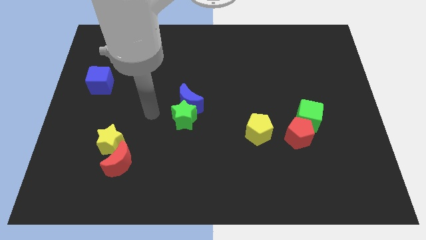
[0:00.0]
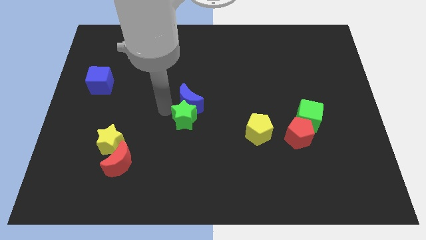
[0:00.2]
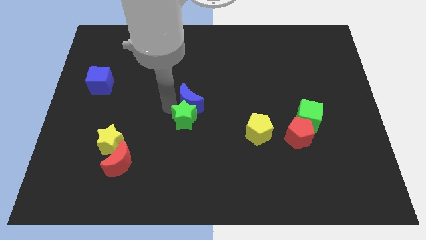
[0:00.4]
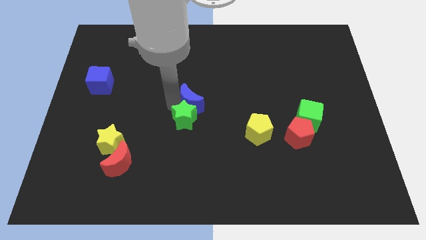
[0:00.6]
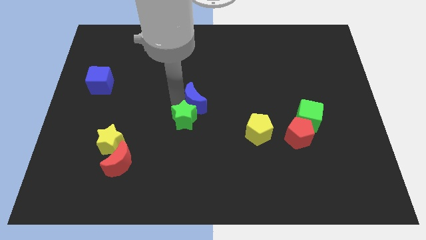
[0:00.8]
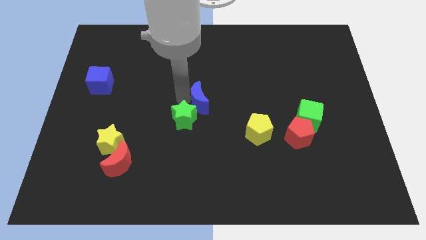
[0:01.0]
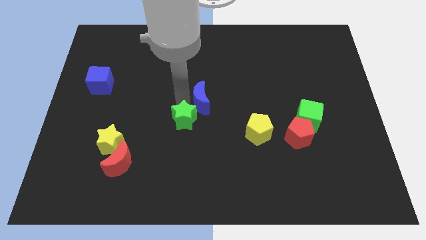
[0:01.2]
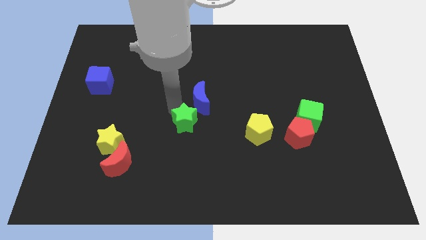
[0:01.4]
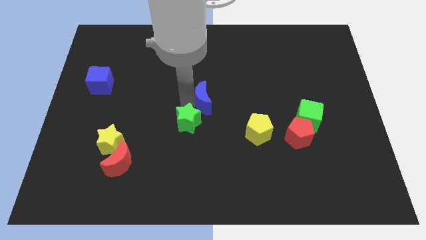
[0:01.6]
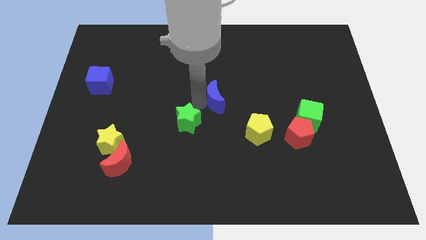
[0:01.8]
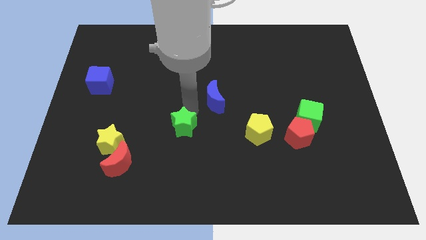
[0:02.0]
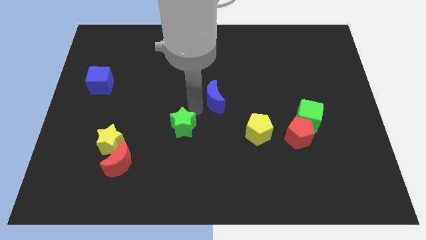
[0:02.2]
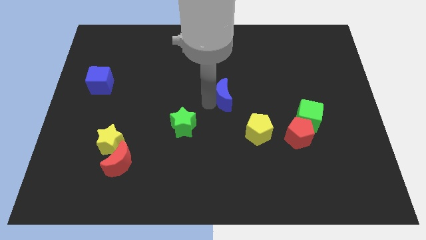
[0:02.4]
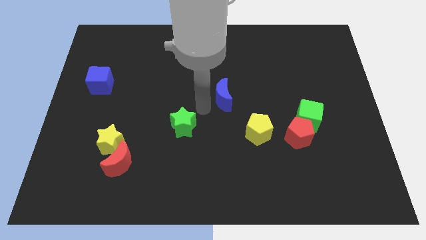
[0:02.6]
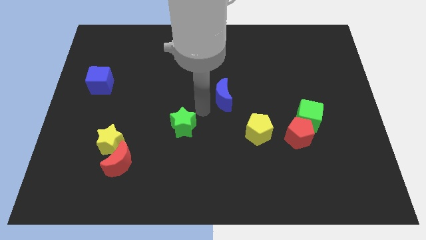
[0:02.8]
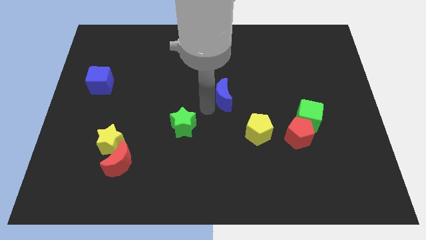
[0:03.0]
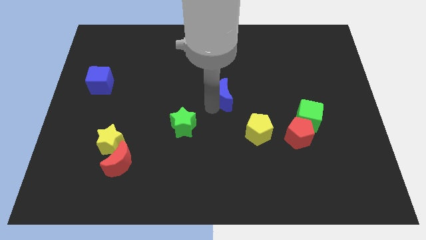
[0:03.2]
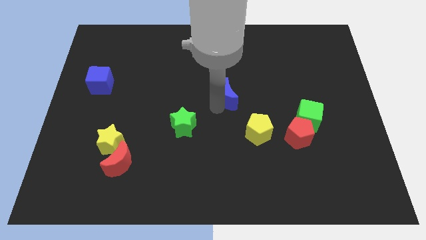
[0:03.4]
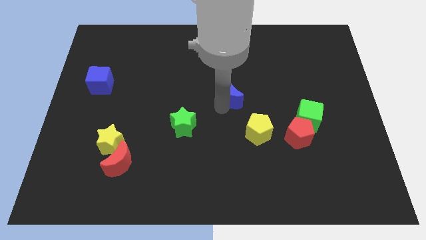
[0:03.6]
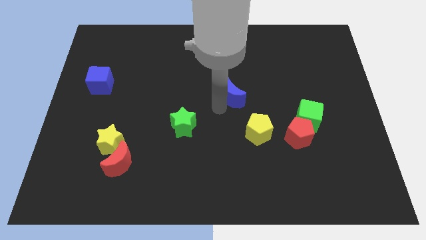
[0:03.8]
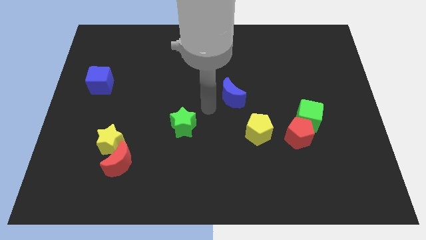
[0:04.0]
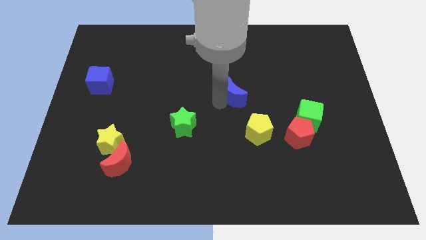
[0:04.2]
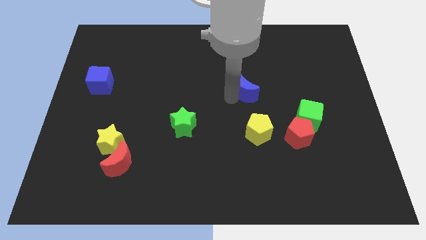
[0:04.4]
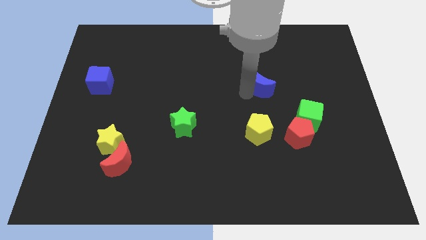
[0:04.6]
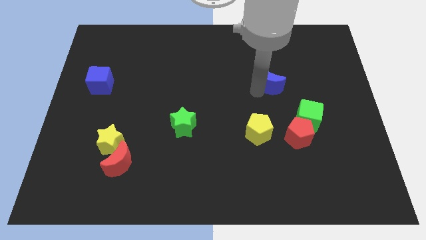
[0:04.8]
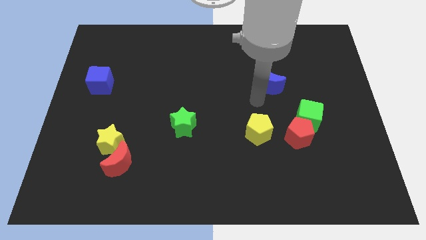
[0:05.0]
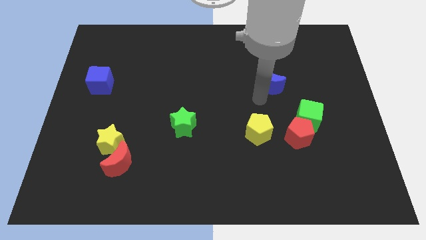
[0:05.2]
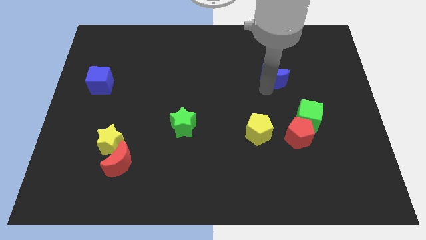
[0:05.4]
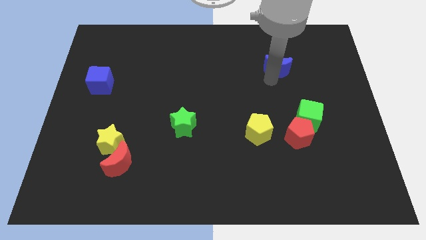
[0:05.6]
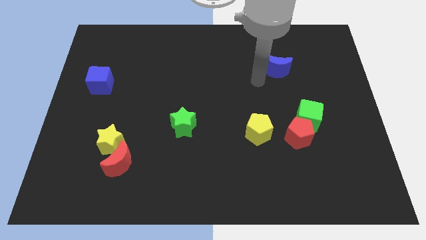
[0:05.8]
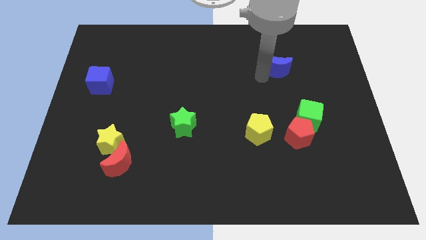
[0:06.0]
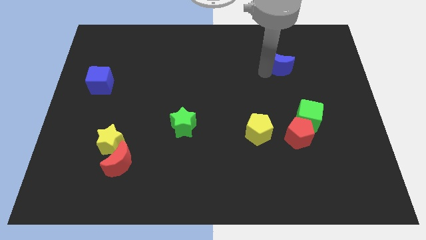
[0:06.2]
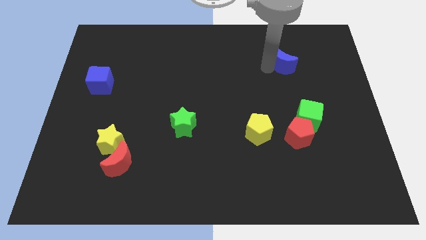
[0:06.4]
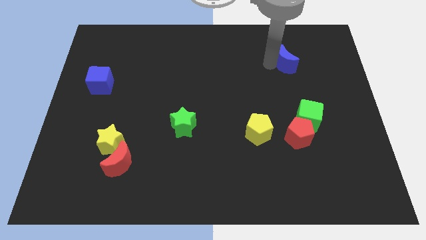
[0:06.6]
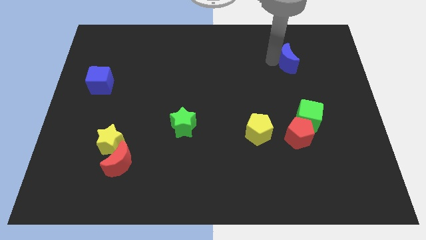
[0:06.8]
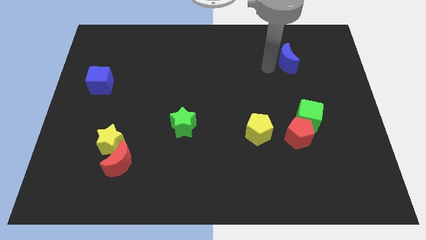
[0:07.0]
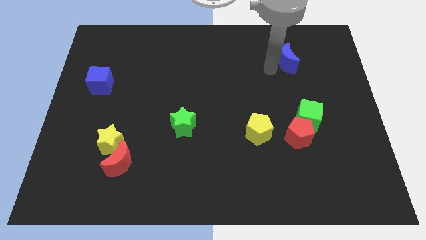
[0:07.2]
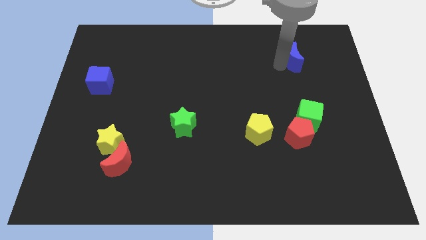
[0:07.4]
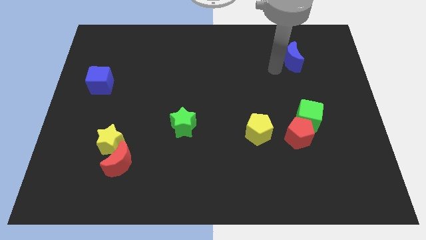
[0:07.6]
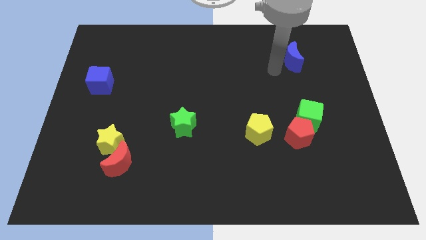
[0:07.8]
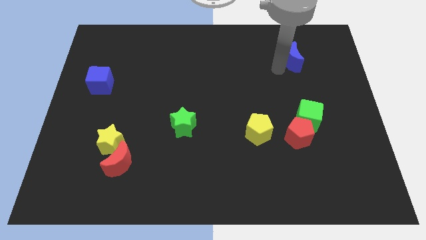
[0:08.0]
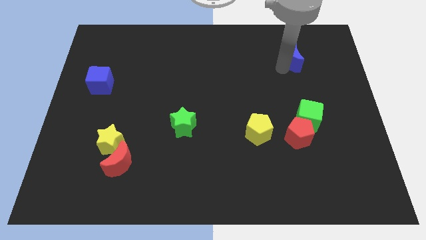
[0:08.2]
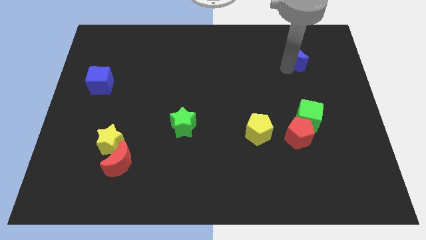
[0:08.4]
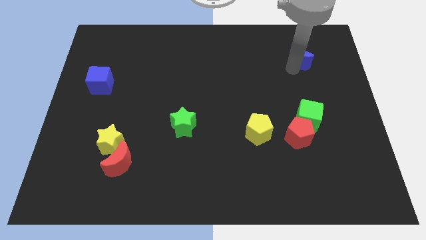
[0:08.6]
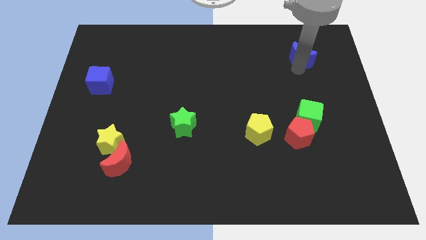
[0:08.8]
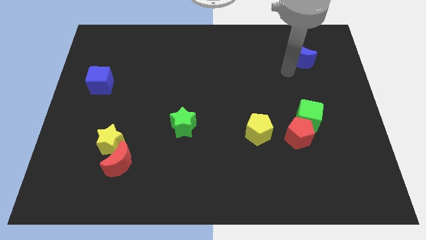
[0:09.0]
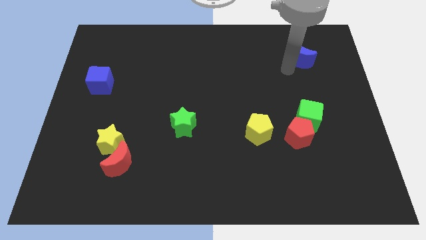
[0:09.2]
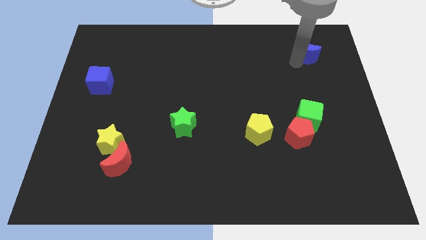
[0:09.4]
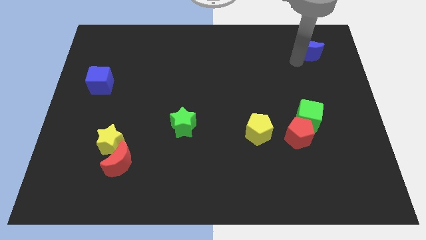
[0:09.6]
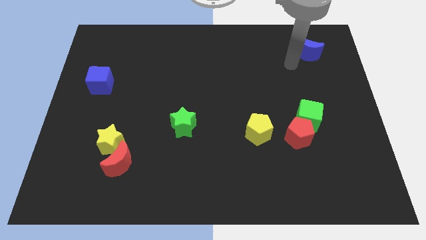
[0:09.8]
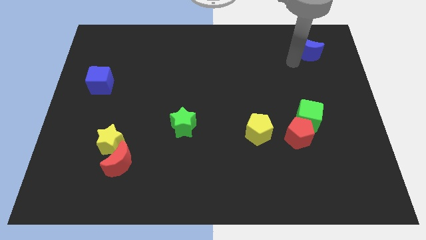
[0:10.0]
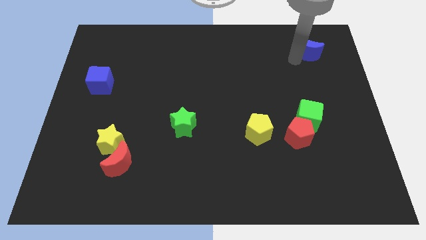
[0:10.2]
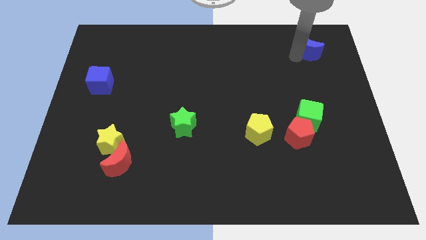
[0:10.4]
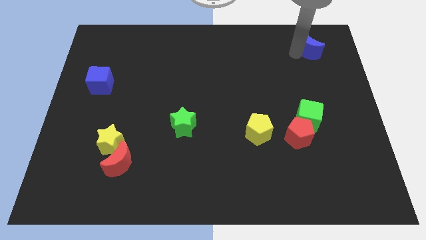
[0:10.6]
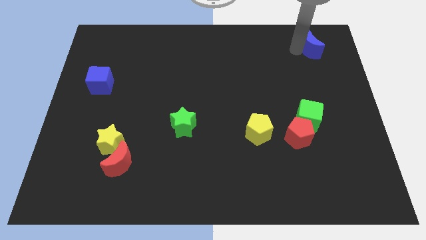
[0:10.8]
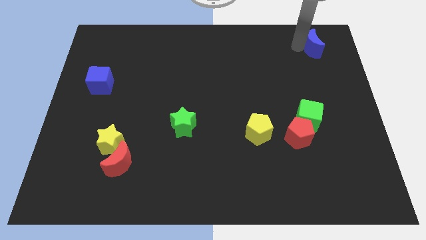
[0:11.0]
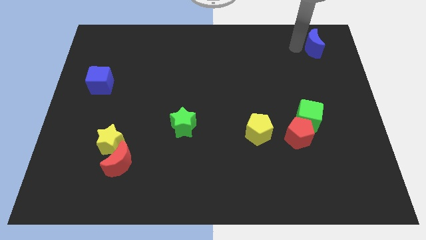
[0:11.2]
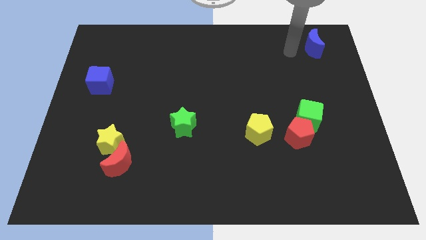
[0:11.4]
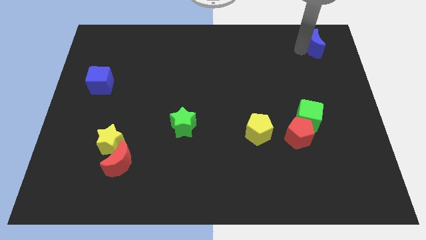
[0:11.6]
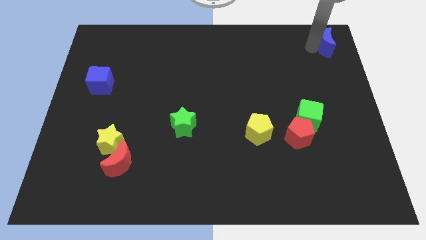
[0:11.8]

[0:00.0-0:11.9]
push the blue moon to the top right of the board

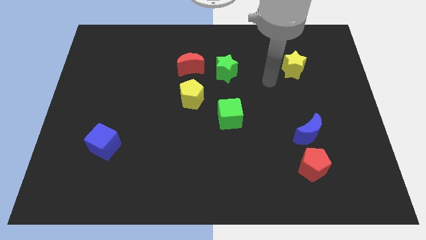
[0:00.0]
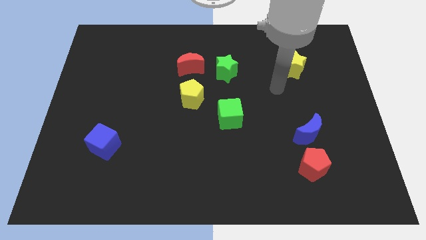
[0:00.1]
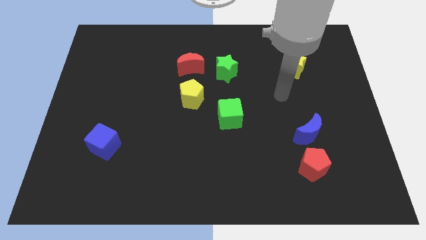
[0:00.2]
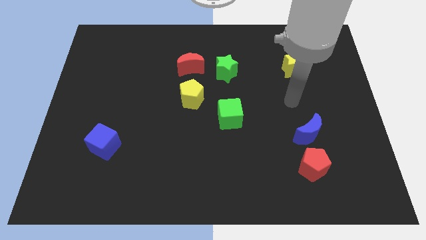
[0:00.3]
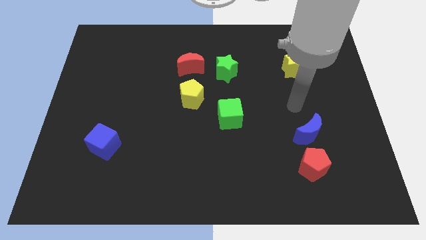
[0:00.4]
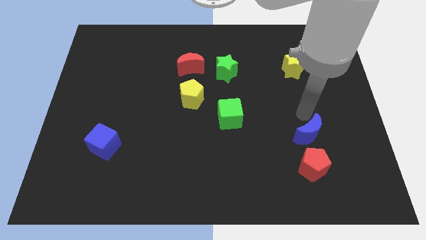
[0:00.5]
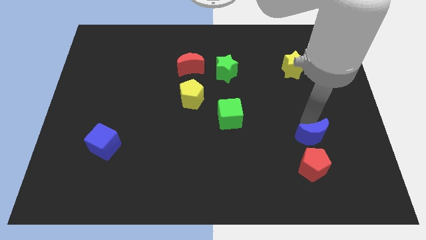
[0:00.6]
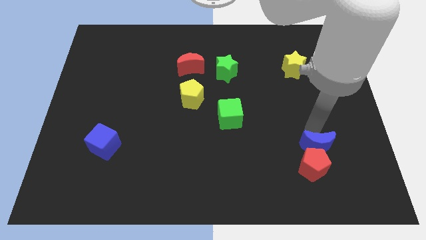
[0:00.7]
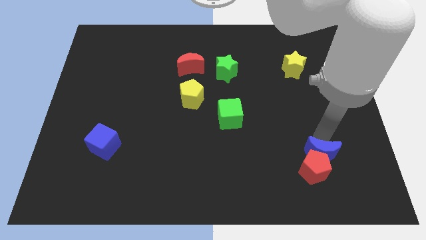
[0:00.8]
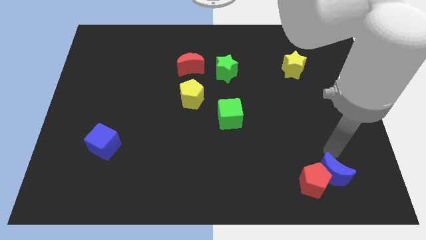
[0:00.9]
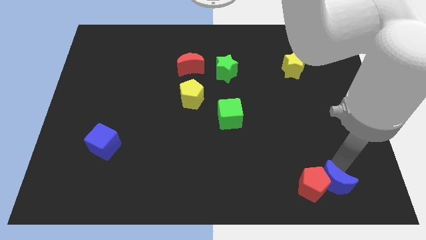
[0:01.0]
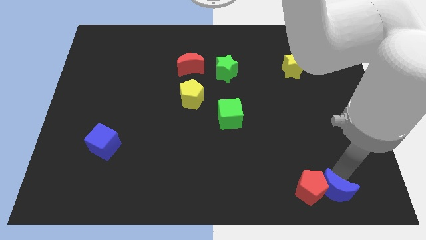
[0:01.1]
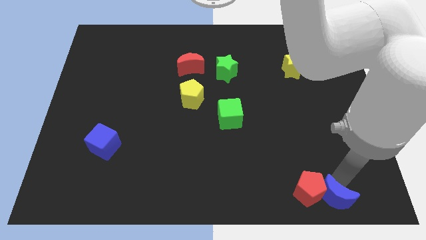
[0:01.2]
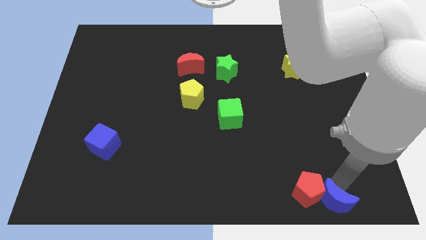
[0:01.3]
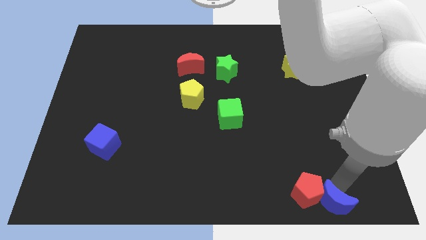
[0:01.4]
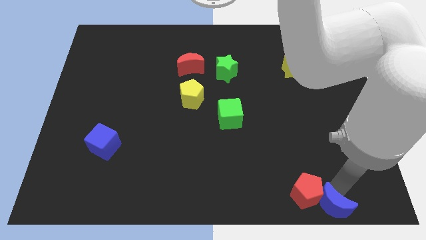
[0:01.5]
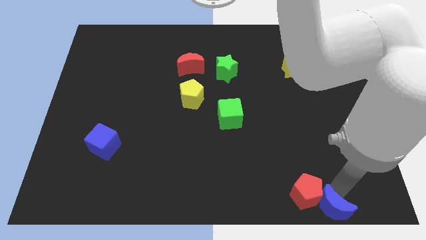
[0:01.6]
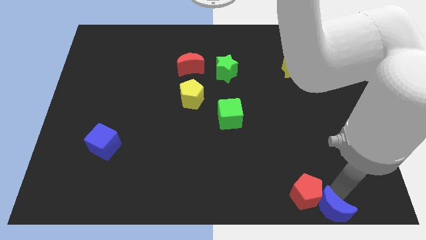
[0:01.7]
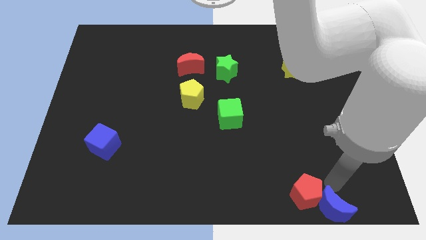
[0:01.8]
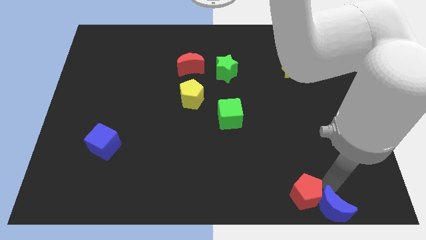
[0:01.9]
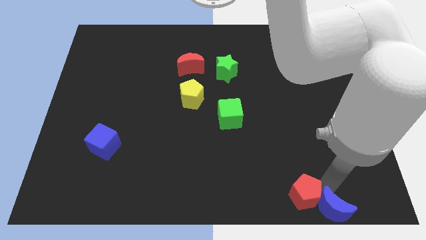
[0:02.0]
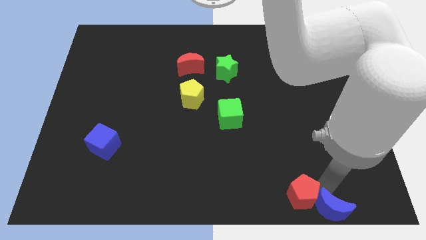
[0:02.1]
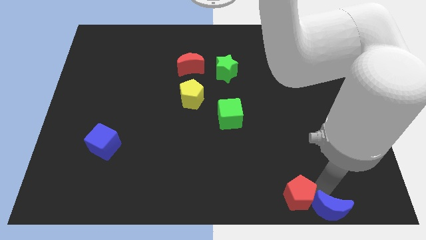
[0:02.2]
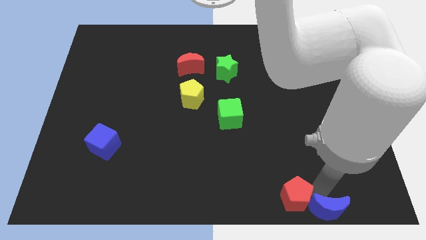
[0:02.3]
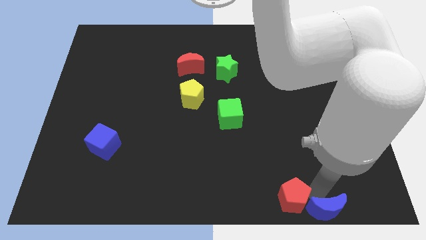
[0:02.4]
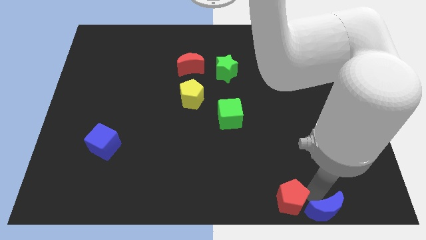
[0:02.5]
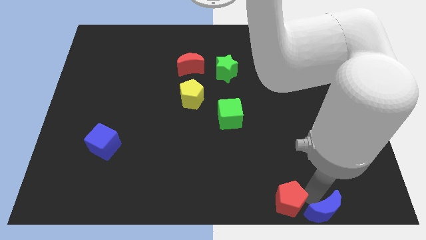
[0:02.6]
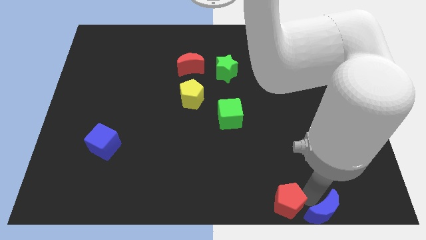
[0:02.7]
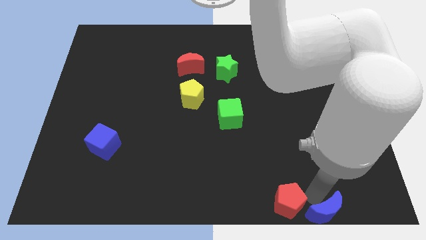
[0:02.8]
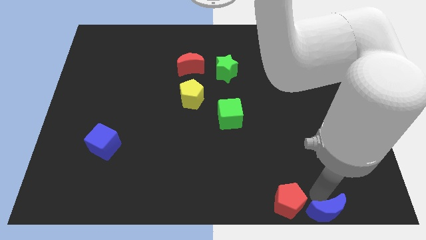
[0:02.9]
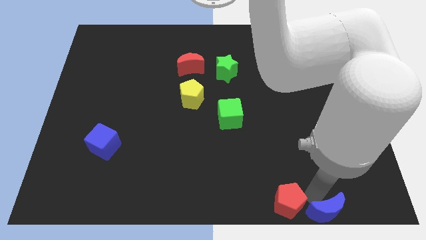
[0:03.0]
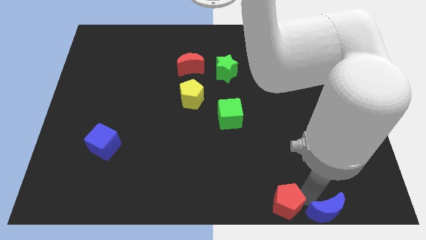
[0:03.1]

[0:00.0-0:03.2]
slide the red pentagon to the bottom side
